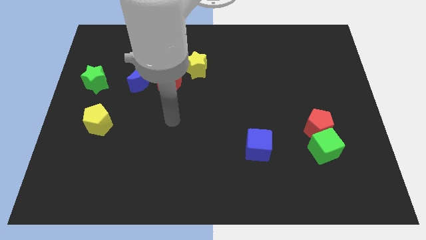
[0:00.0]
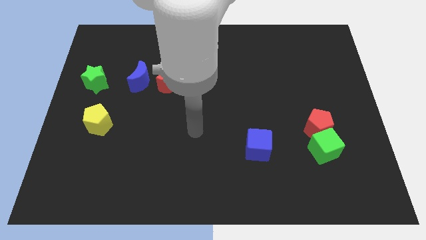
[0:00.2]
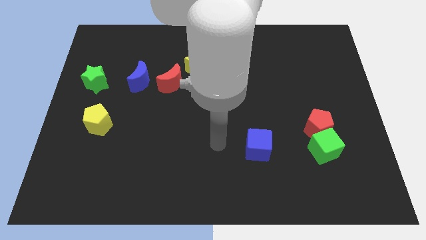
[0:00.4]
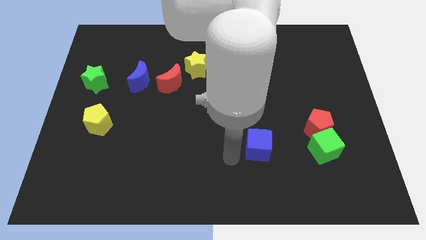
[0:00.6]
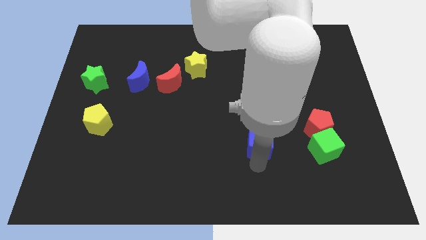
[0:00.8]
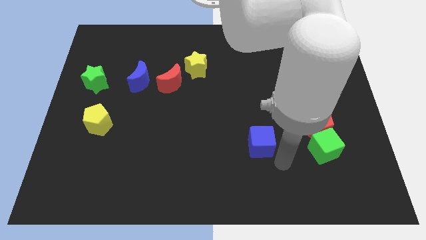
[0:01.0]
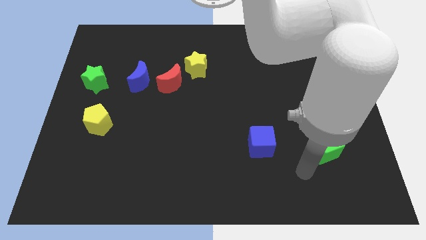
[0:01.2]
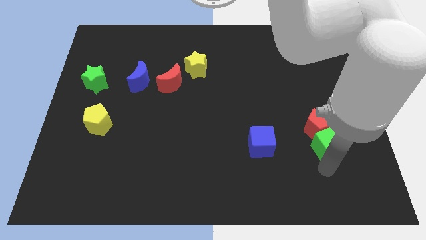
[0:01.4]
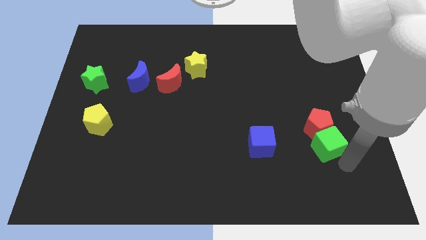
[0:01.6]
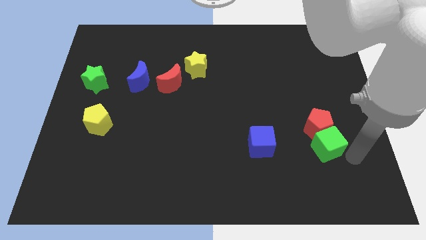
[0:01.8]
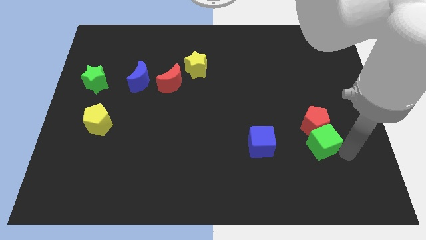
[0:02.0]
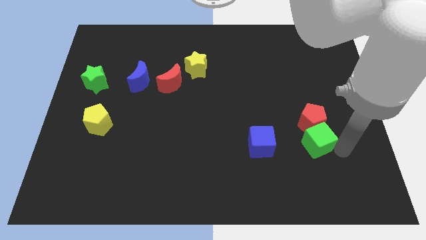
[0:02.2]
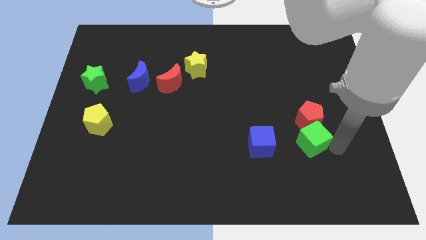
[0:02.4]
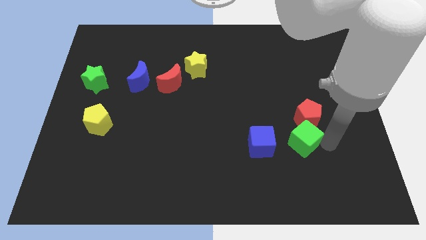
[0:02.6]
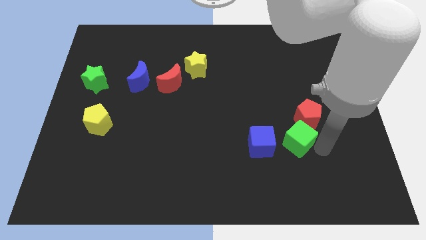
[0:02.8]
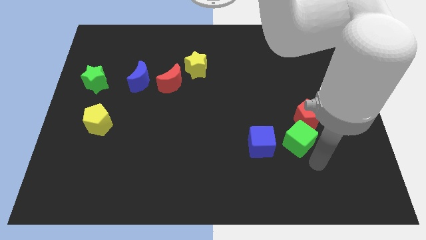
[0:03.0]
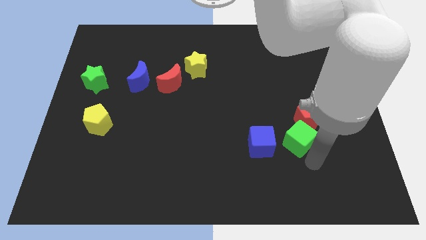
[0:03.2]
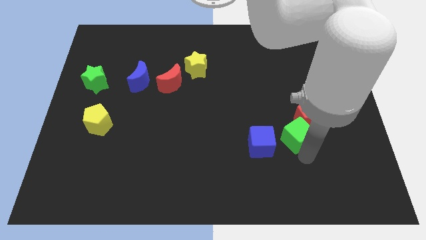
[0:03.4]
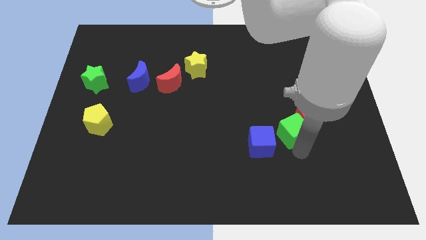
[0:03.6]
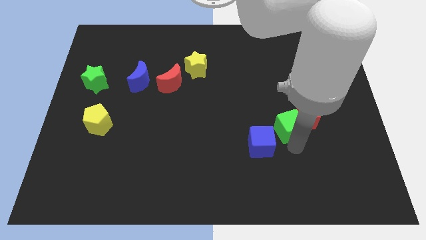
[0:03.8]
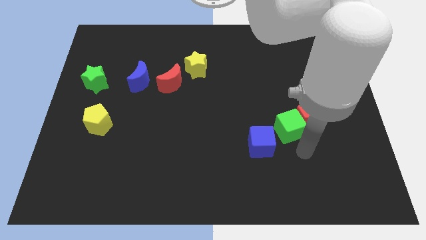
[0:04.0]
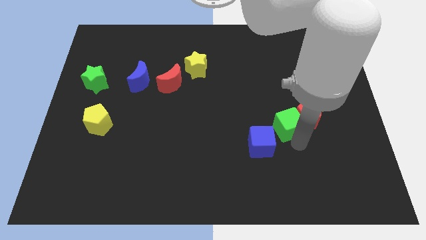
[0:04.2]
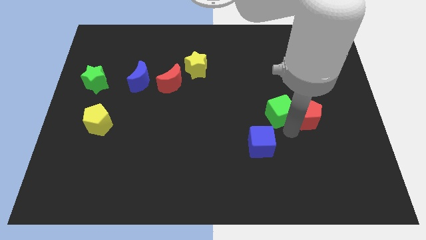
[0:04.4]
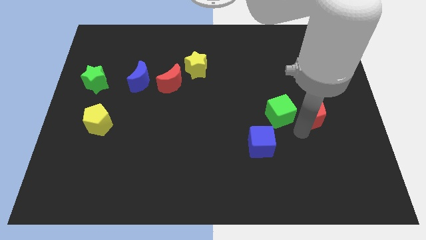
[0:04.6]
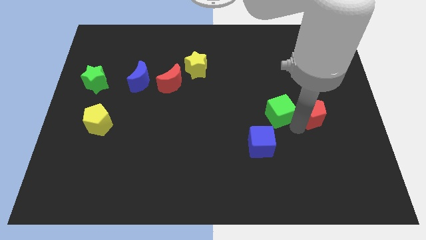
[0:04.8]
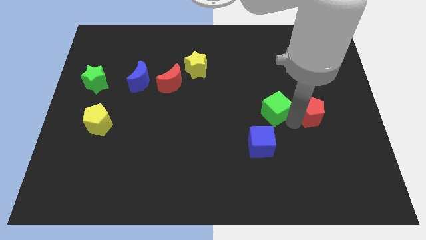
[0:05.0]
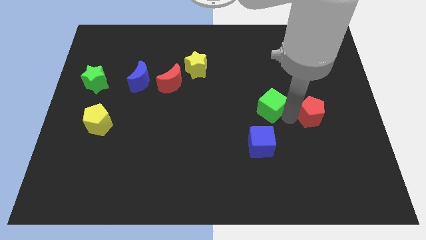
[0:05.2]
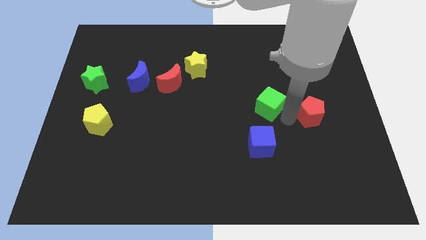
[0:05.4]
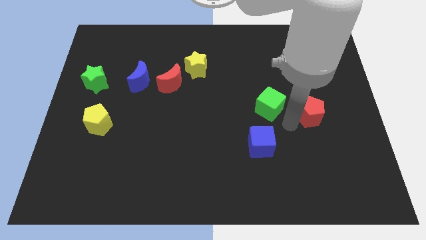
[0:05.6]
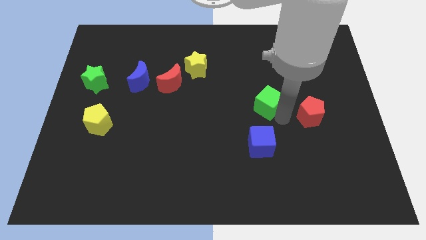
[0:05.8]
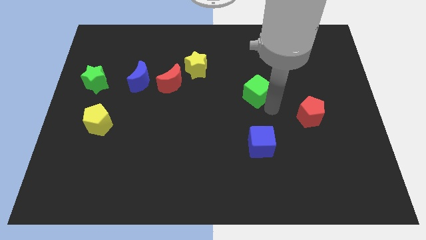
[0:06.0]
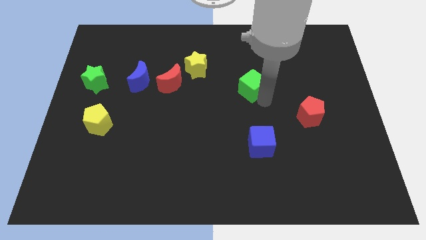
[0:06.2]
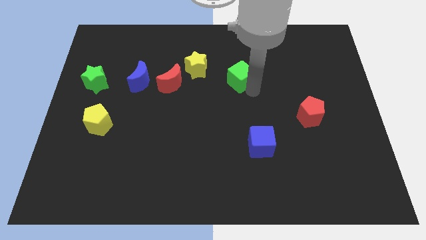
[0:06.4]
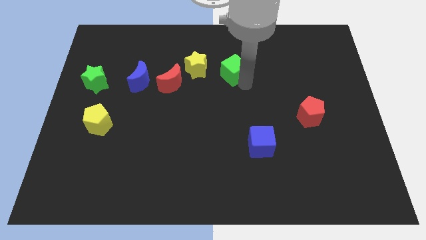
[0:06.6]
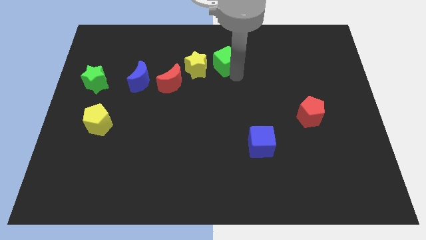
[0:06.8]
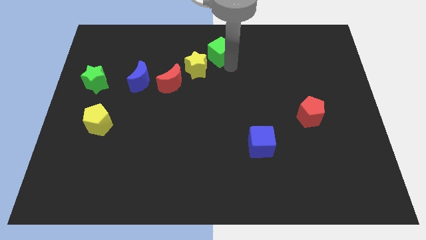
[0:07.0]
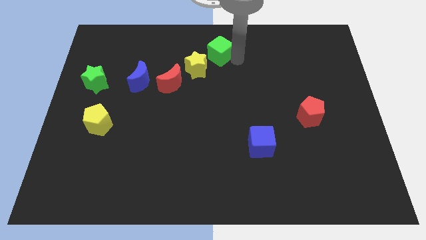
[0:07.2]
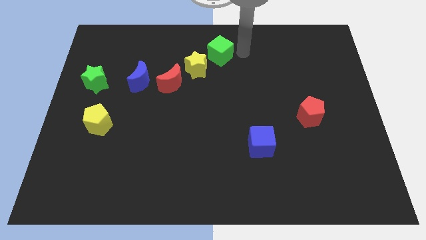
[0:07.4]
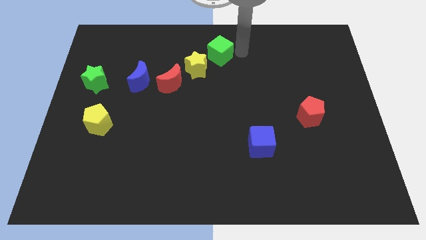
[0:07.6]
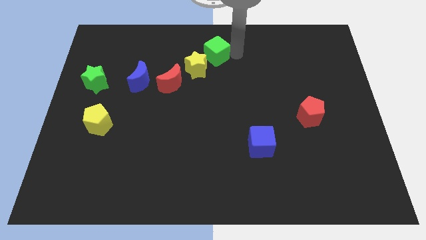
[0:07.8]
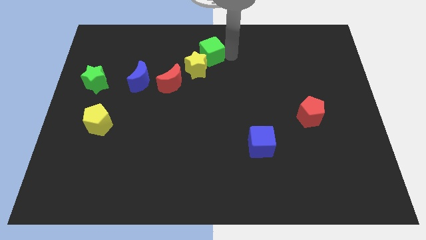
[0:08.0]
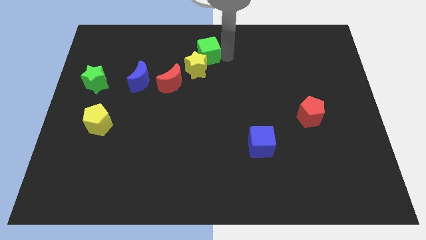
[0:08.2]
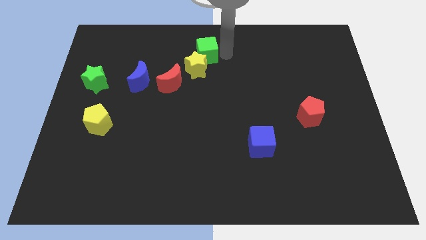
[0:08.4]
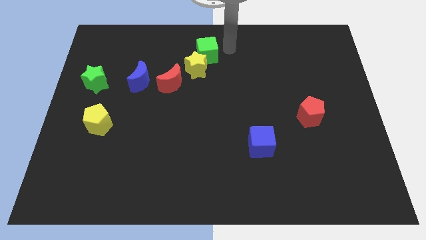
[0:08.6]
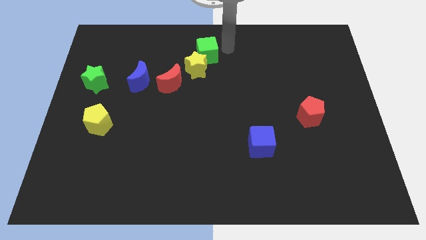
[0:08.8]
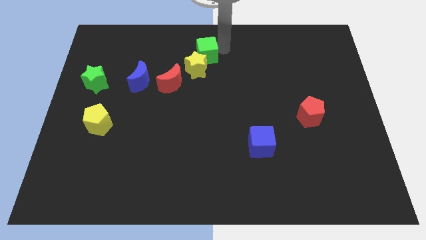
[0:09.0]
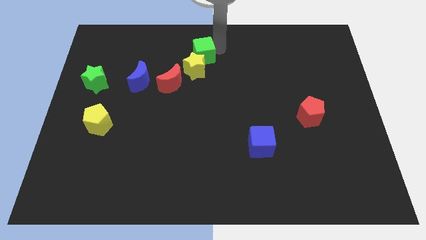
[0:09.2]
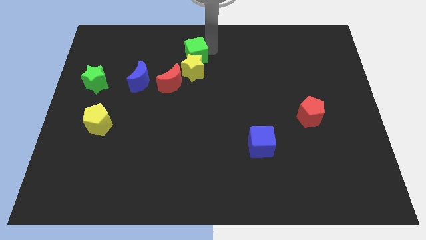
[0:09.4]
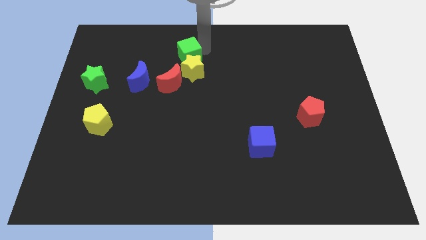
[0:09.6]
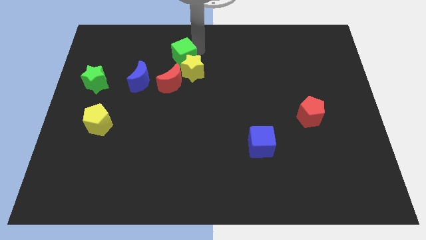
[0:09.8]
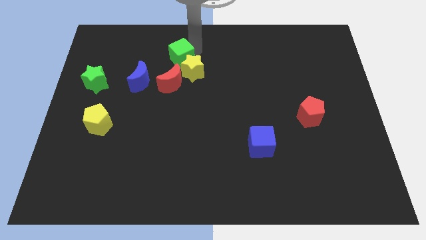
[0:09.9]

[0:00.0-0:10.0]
put the green cube diagonally up and to the right of the blue moon

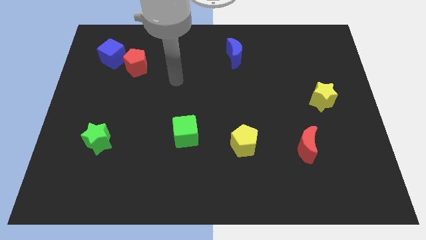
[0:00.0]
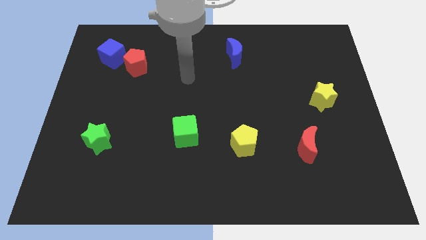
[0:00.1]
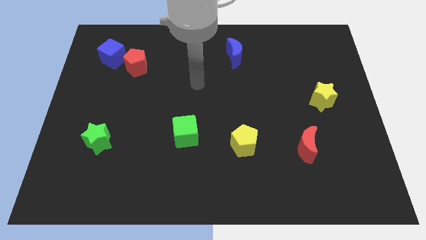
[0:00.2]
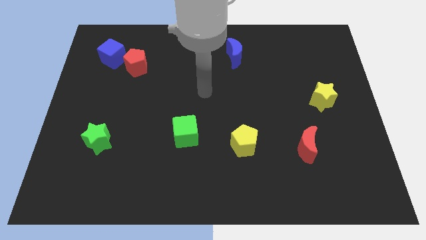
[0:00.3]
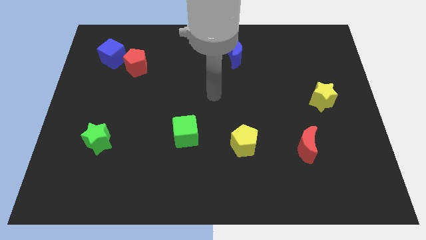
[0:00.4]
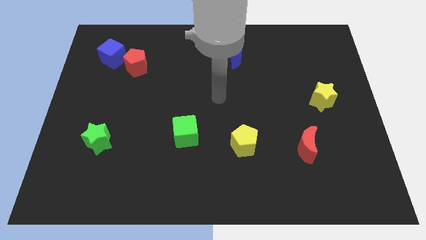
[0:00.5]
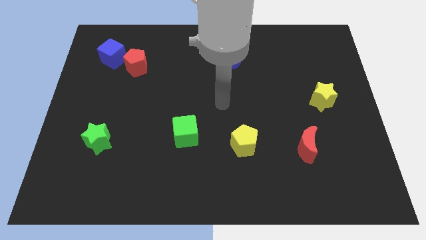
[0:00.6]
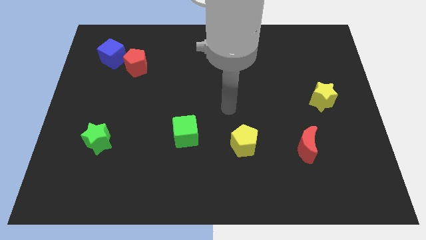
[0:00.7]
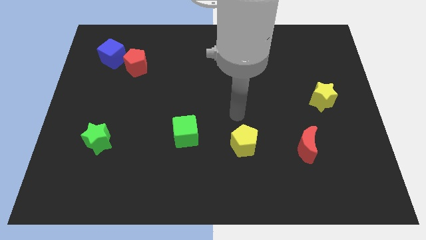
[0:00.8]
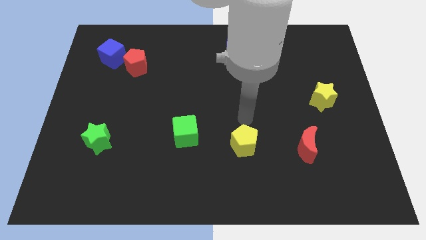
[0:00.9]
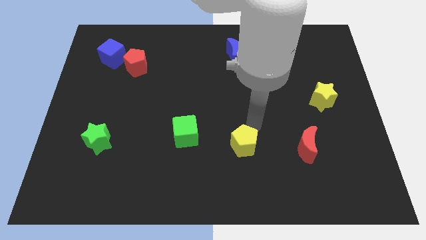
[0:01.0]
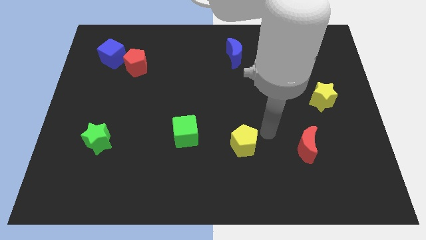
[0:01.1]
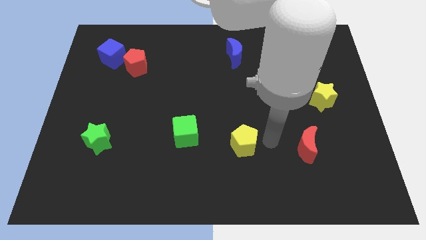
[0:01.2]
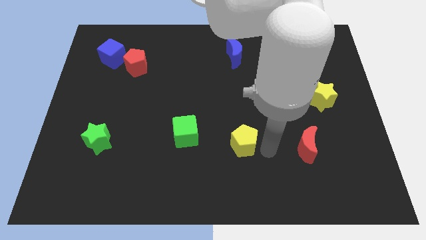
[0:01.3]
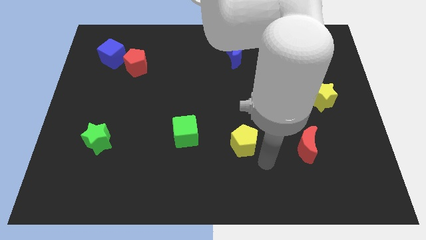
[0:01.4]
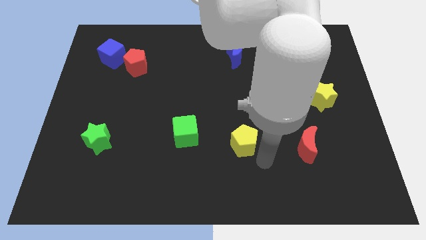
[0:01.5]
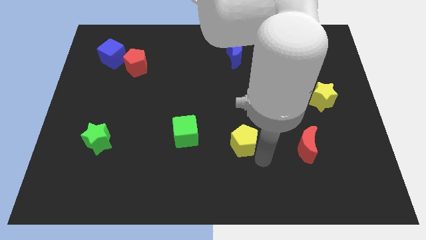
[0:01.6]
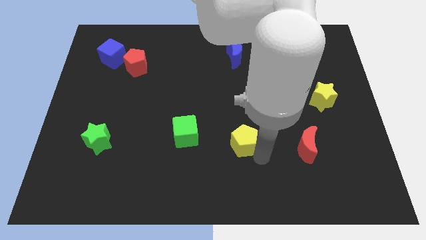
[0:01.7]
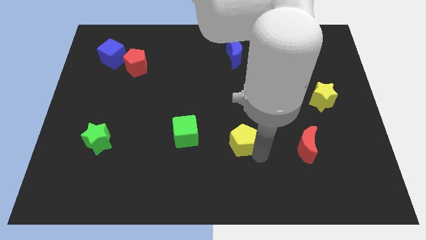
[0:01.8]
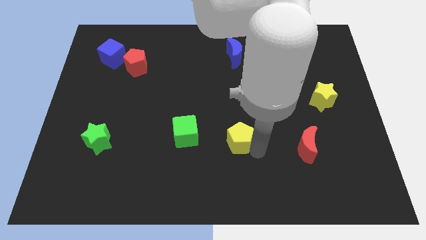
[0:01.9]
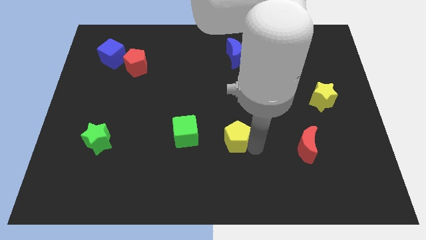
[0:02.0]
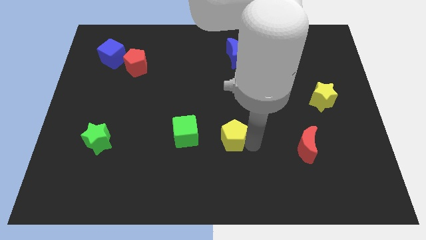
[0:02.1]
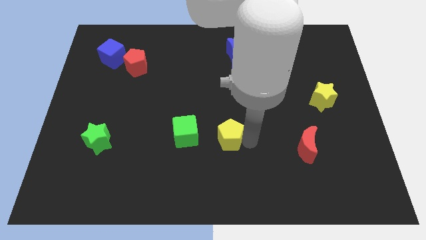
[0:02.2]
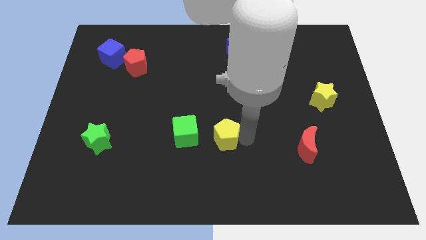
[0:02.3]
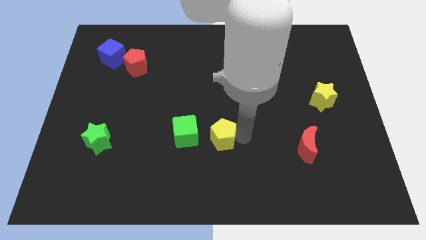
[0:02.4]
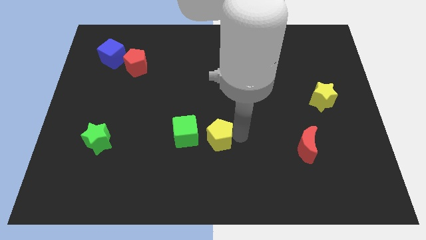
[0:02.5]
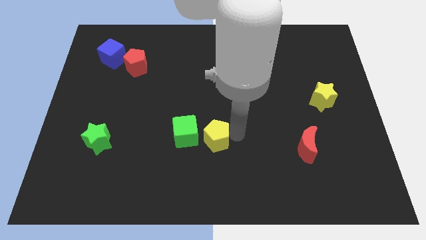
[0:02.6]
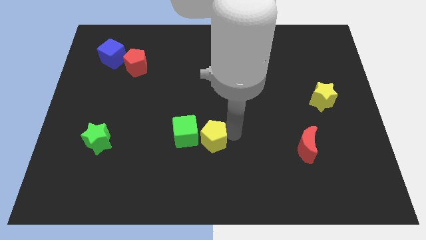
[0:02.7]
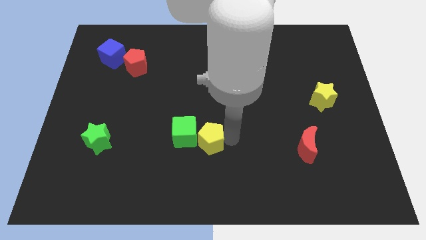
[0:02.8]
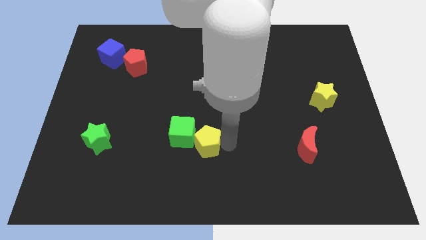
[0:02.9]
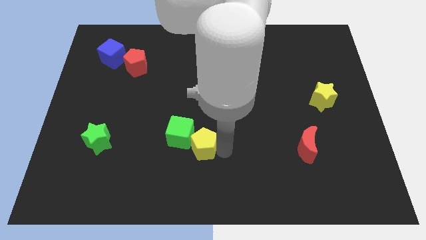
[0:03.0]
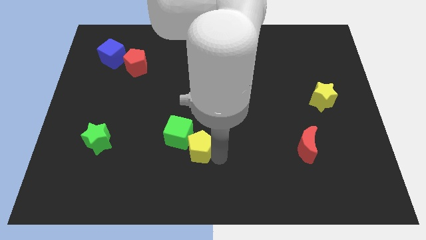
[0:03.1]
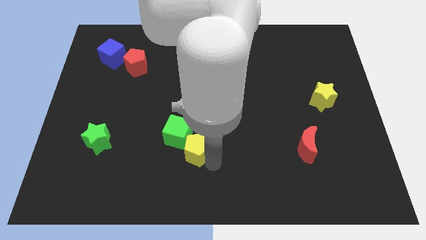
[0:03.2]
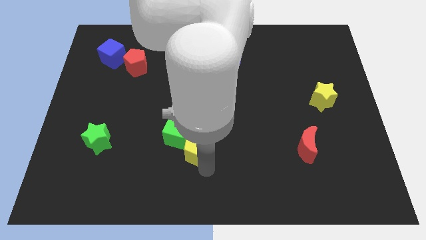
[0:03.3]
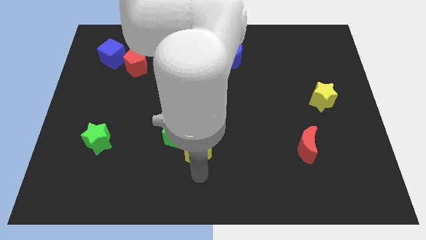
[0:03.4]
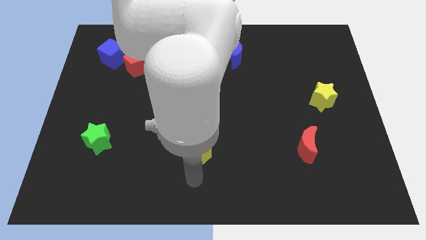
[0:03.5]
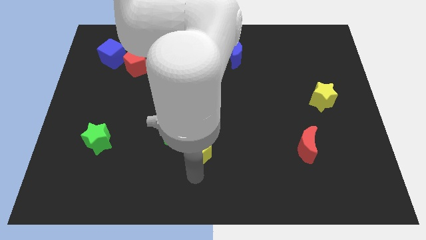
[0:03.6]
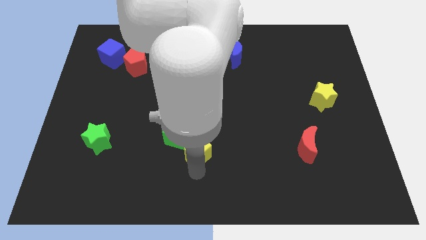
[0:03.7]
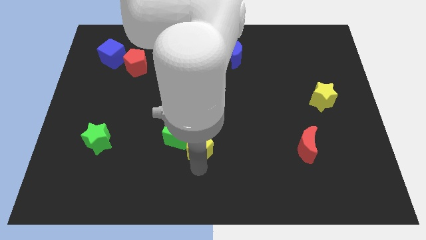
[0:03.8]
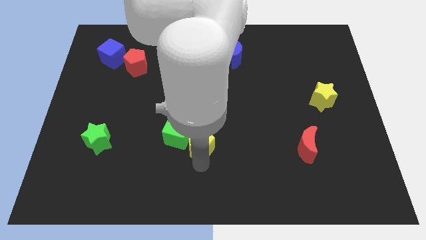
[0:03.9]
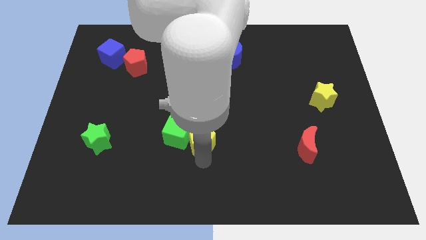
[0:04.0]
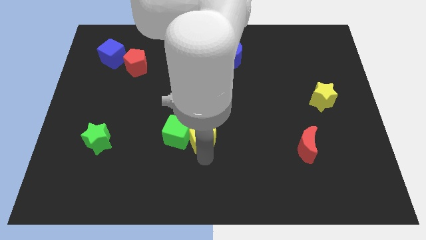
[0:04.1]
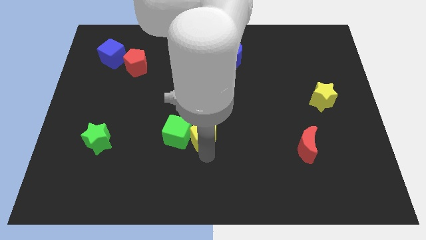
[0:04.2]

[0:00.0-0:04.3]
move the yellow pentagon to the top right of the green cube
